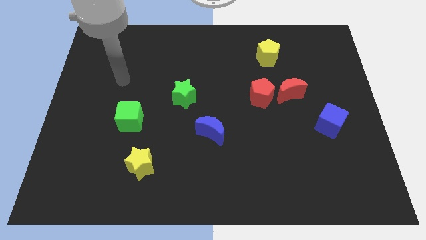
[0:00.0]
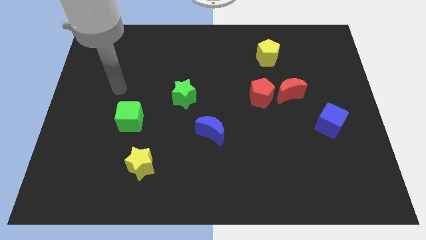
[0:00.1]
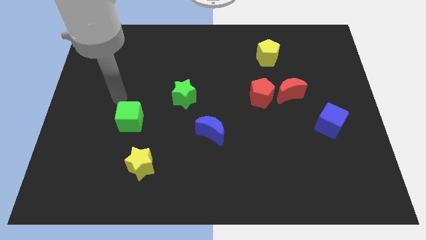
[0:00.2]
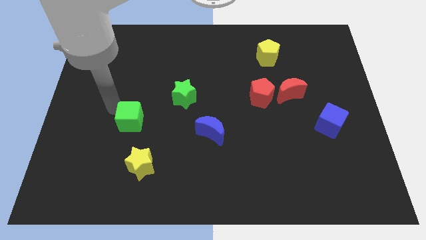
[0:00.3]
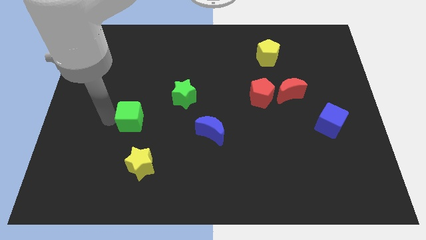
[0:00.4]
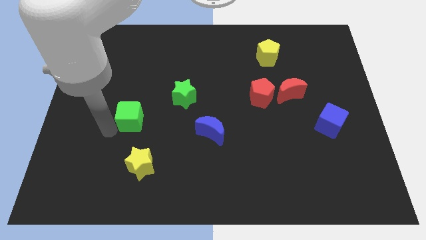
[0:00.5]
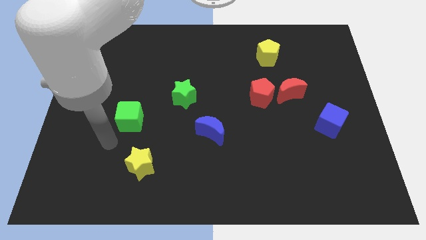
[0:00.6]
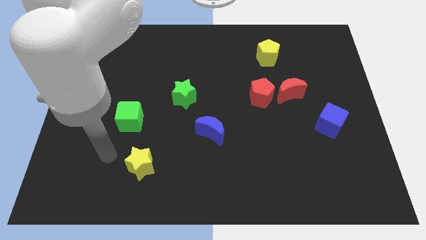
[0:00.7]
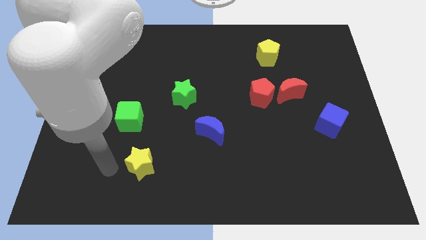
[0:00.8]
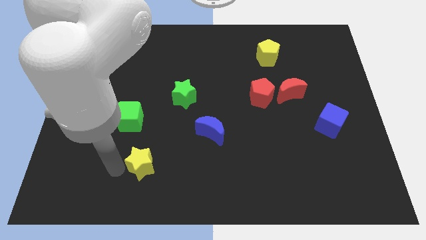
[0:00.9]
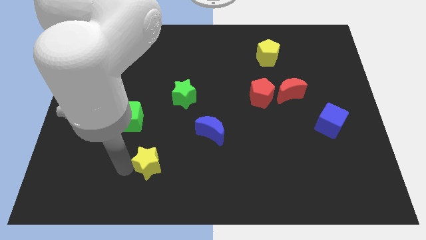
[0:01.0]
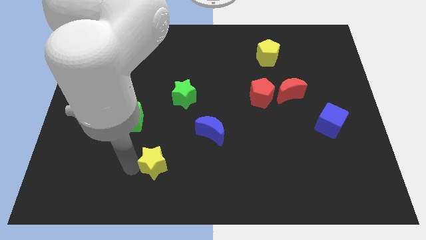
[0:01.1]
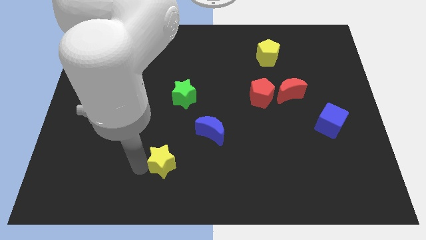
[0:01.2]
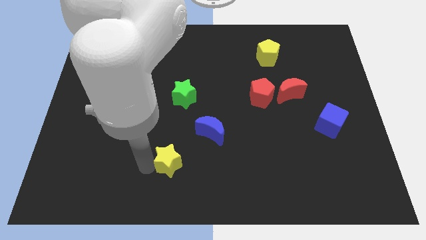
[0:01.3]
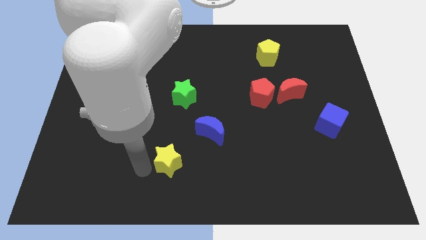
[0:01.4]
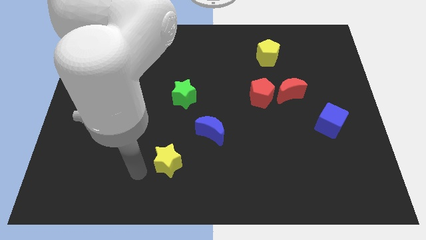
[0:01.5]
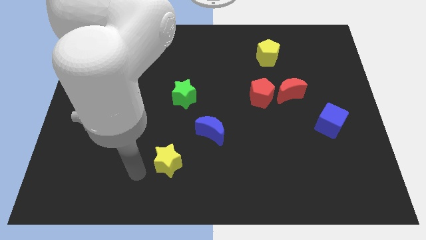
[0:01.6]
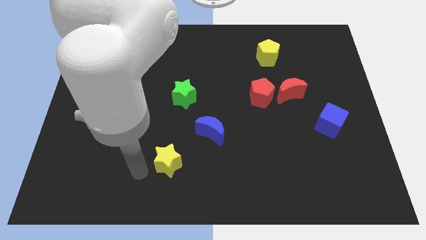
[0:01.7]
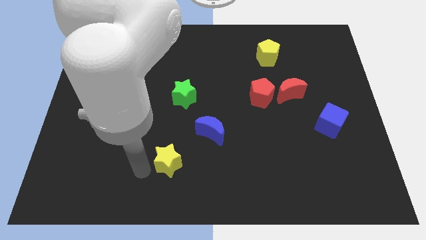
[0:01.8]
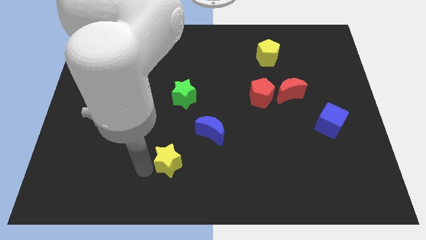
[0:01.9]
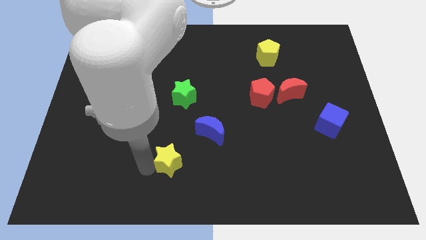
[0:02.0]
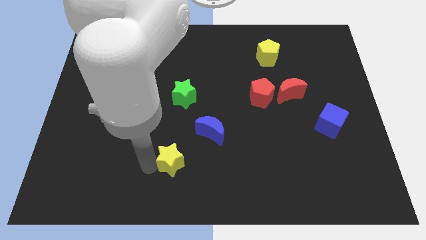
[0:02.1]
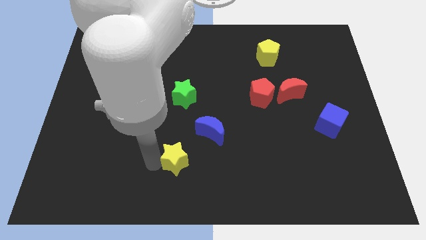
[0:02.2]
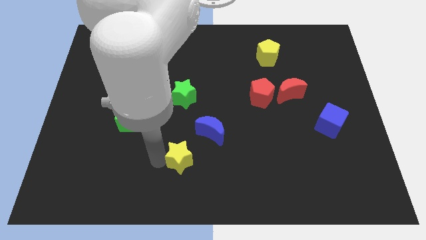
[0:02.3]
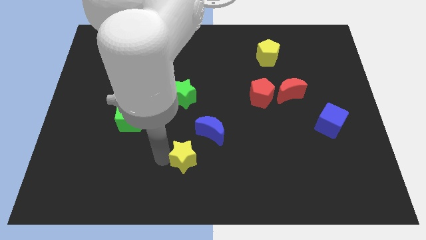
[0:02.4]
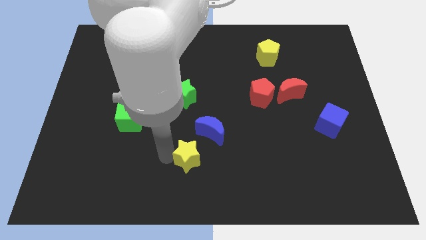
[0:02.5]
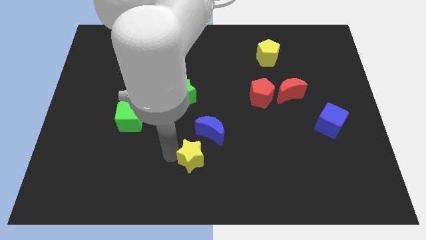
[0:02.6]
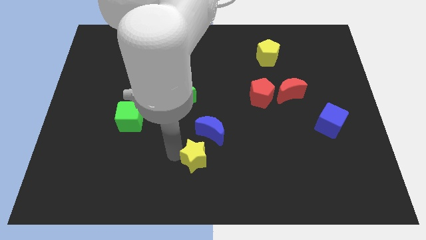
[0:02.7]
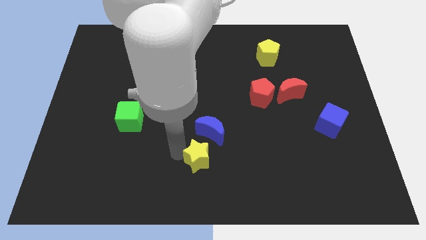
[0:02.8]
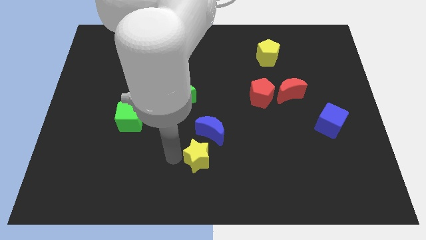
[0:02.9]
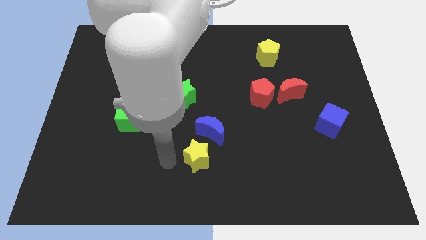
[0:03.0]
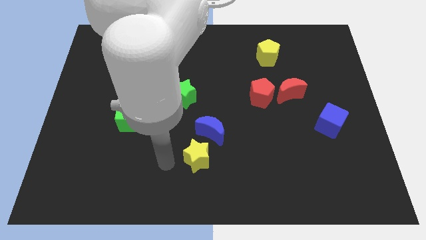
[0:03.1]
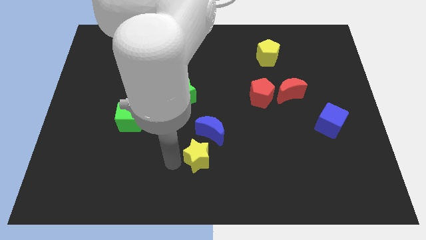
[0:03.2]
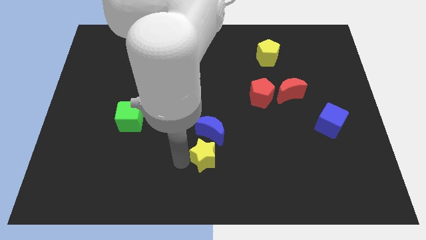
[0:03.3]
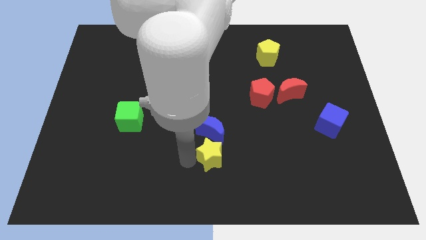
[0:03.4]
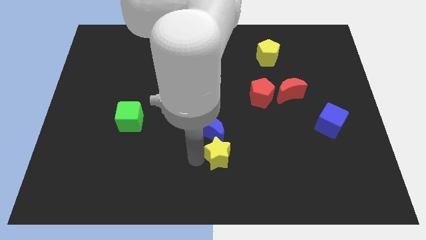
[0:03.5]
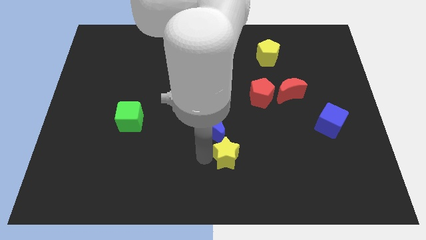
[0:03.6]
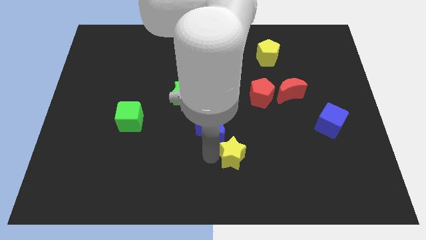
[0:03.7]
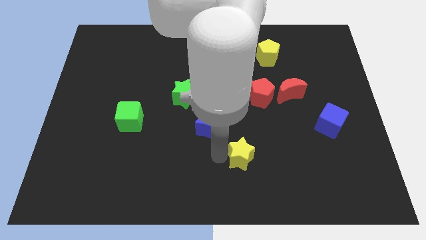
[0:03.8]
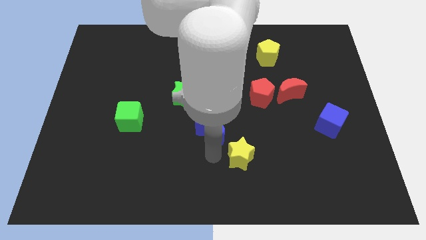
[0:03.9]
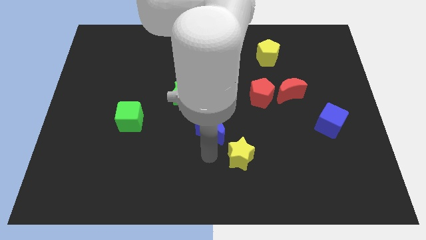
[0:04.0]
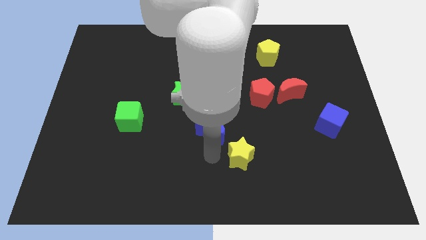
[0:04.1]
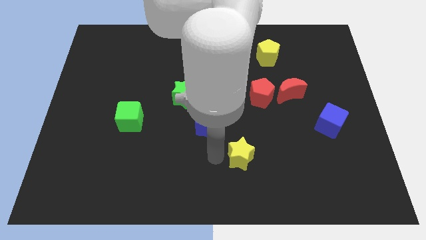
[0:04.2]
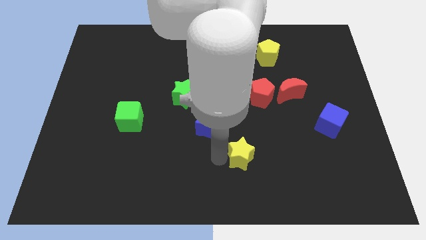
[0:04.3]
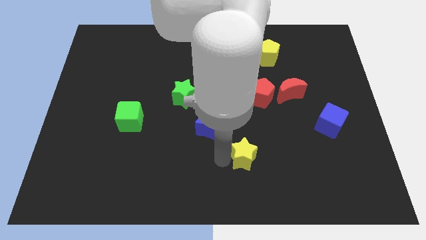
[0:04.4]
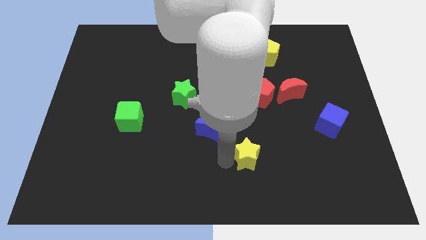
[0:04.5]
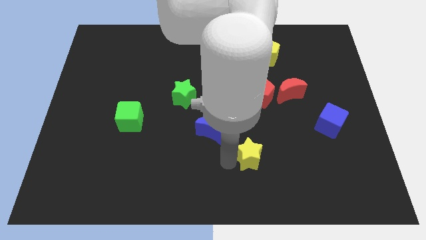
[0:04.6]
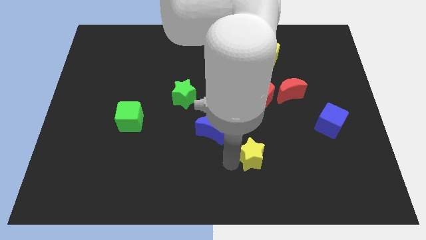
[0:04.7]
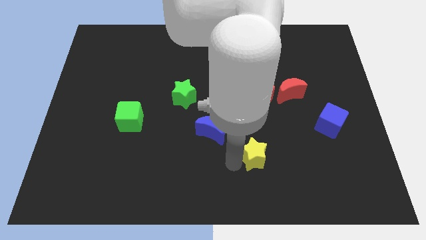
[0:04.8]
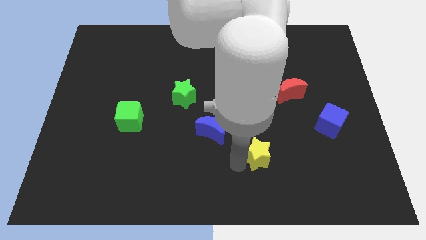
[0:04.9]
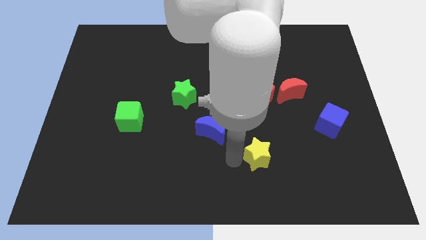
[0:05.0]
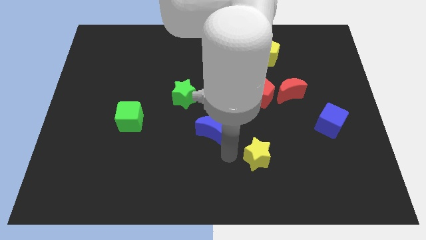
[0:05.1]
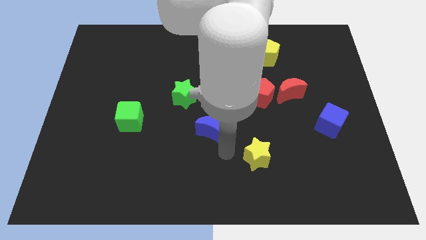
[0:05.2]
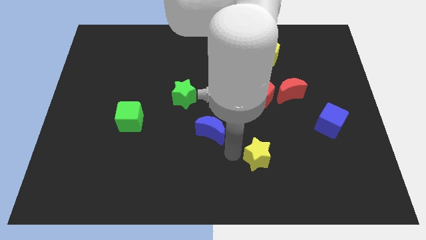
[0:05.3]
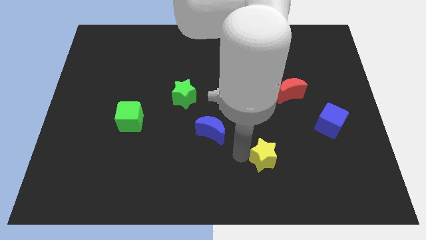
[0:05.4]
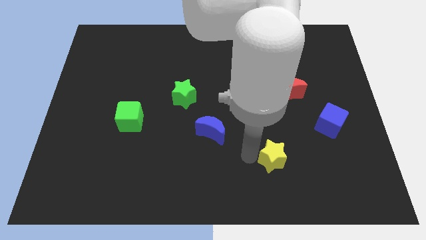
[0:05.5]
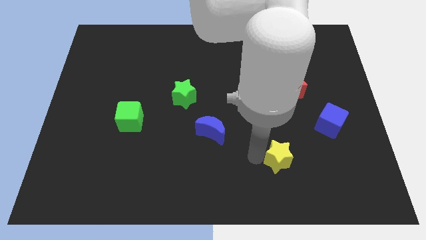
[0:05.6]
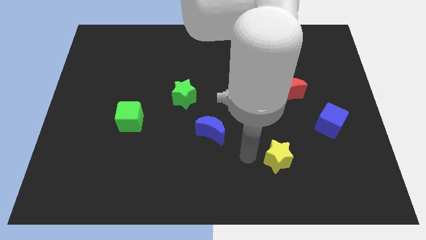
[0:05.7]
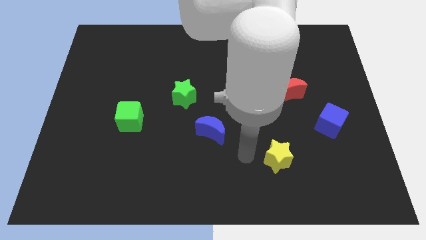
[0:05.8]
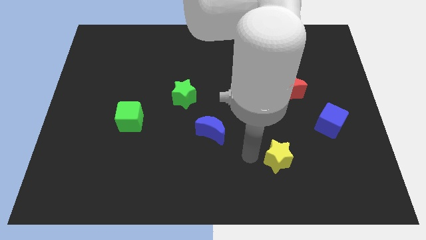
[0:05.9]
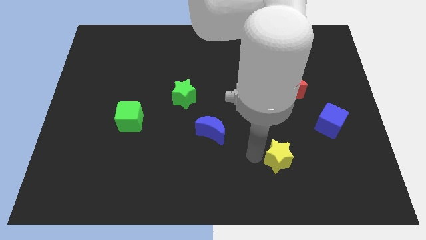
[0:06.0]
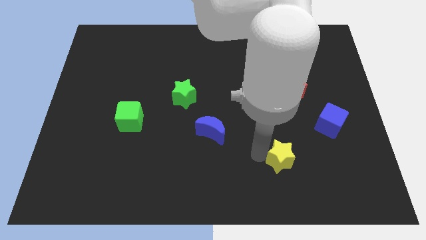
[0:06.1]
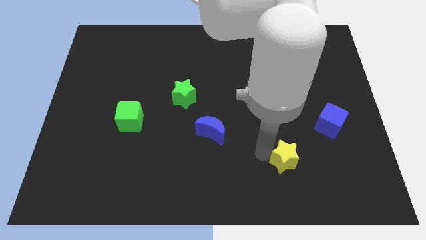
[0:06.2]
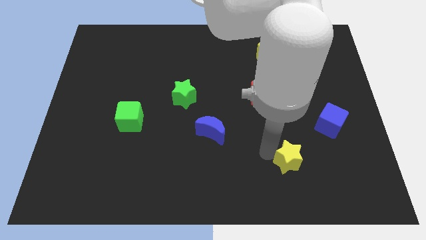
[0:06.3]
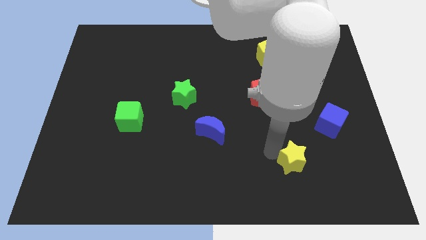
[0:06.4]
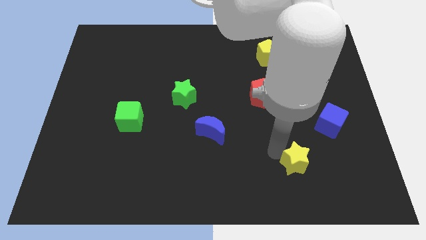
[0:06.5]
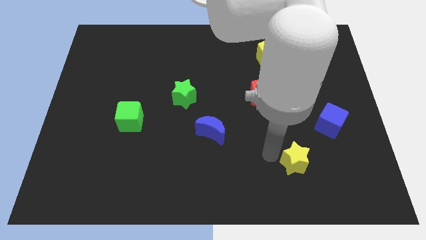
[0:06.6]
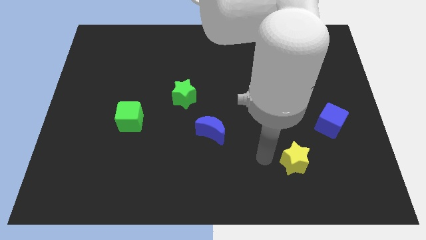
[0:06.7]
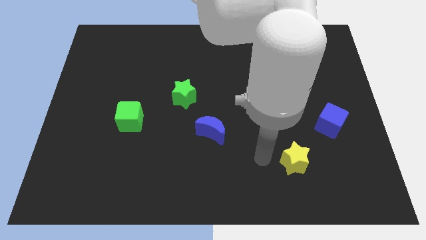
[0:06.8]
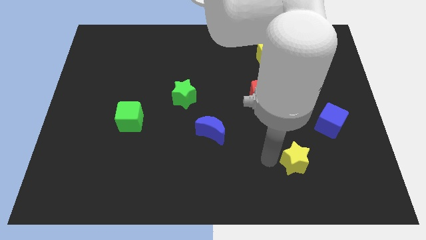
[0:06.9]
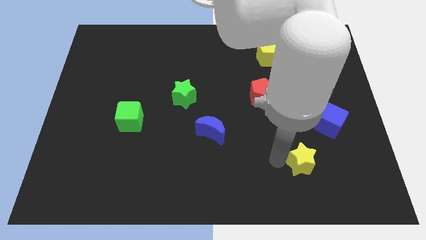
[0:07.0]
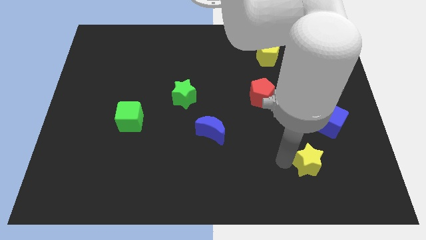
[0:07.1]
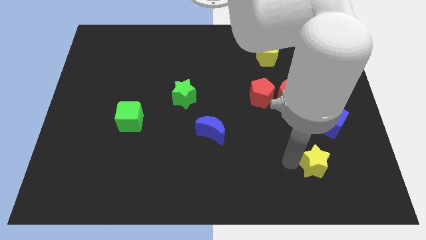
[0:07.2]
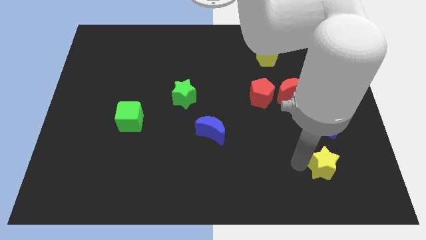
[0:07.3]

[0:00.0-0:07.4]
move the yellow star to the bottom of the blue cube

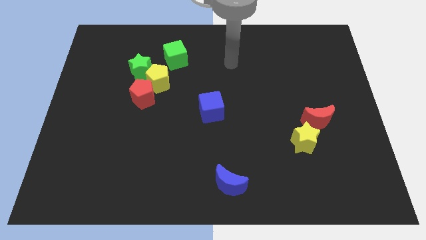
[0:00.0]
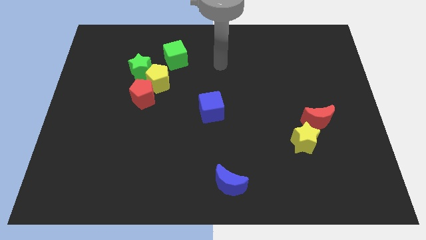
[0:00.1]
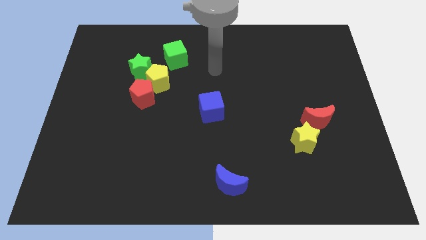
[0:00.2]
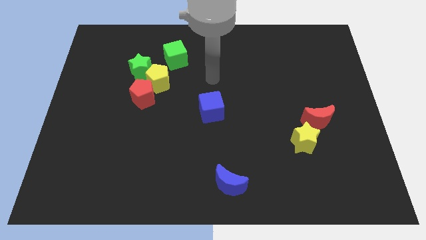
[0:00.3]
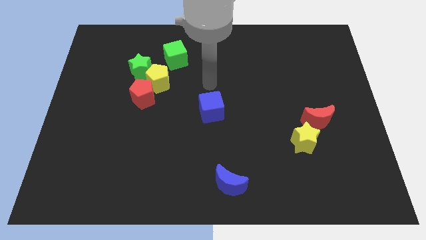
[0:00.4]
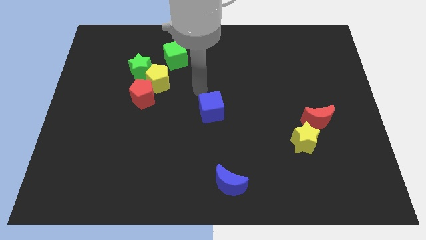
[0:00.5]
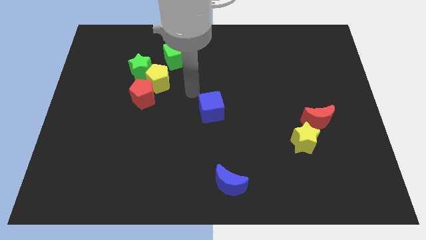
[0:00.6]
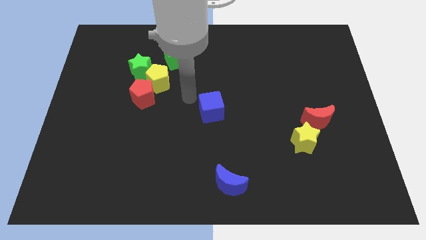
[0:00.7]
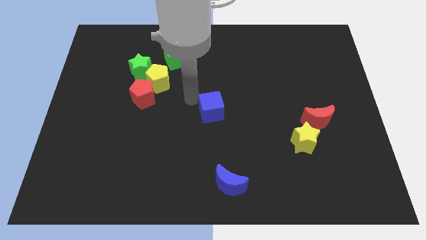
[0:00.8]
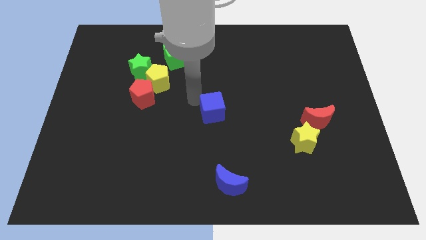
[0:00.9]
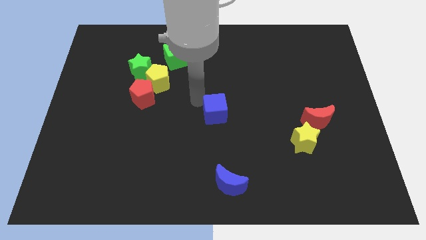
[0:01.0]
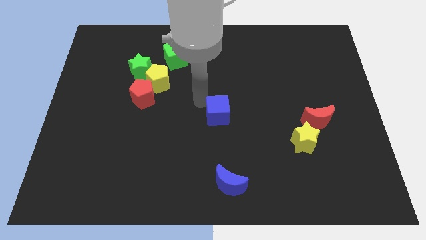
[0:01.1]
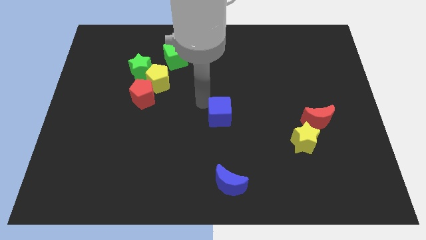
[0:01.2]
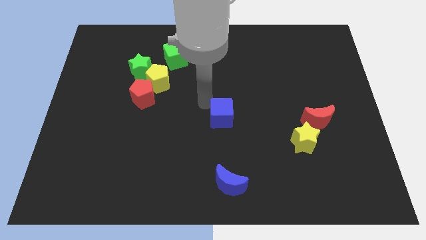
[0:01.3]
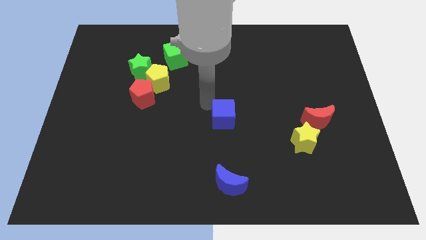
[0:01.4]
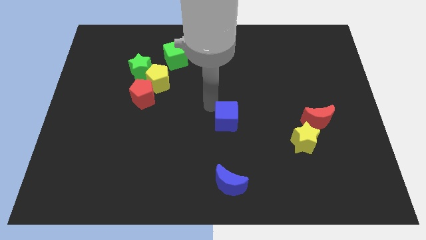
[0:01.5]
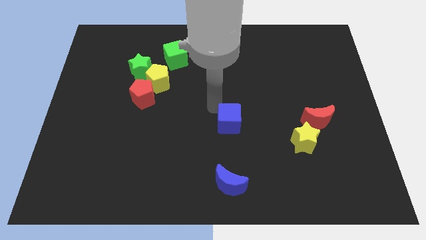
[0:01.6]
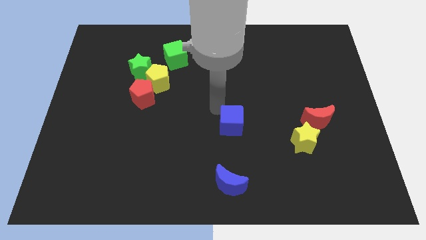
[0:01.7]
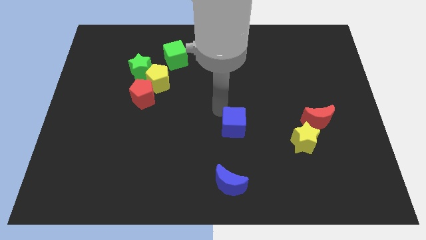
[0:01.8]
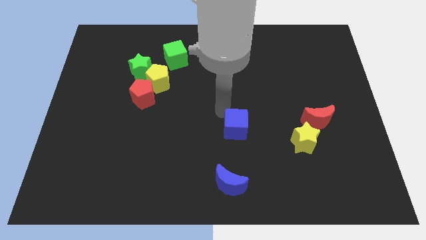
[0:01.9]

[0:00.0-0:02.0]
put the blue cube to the left side of the yellow star
